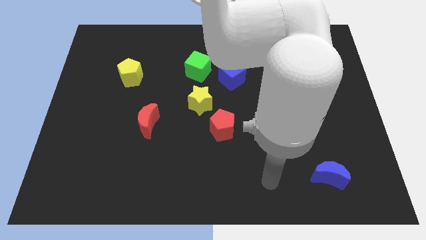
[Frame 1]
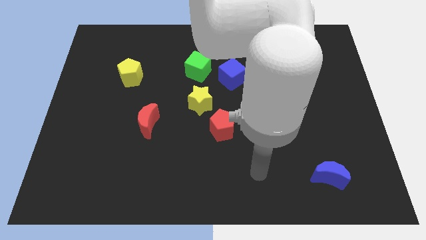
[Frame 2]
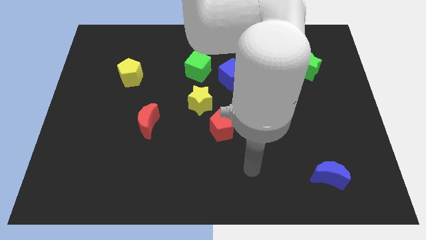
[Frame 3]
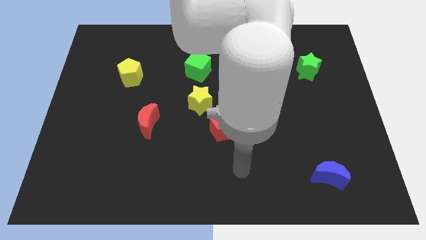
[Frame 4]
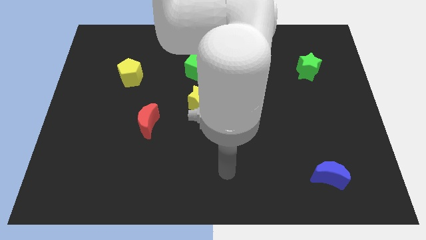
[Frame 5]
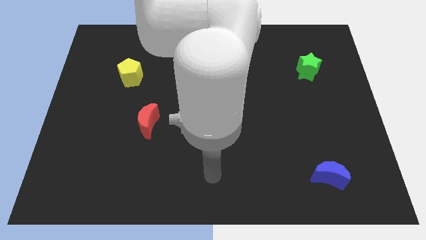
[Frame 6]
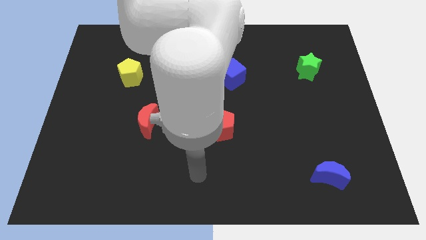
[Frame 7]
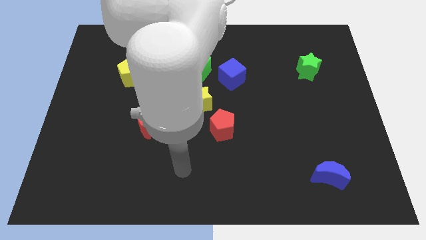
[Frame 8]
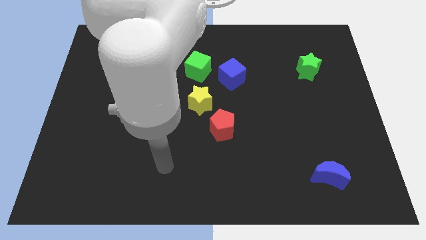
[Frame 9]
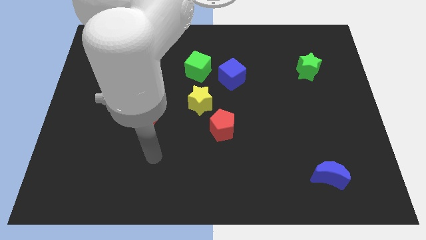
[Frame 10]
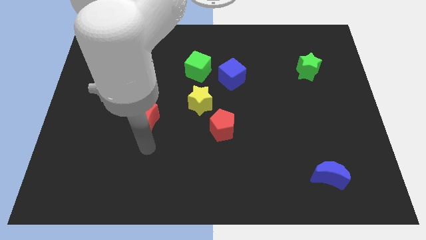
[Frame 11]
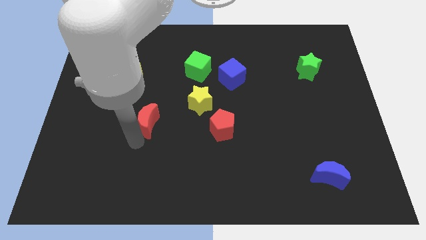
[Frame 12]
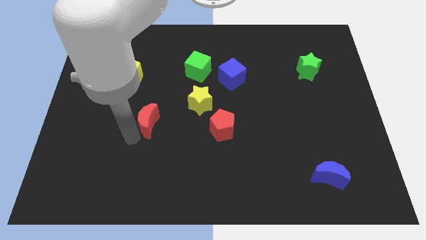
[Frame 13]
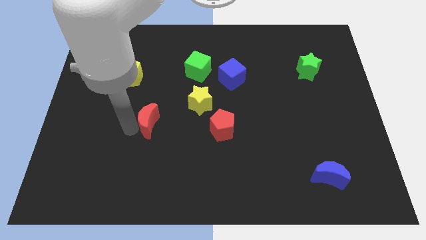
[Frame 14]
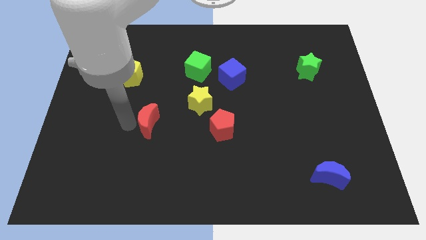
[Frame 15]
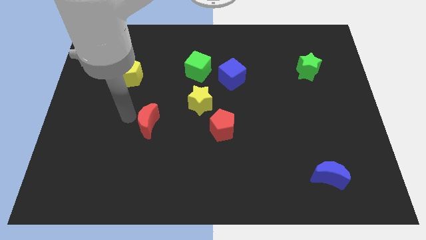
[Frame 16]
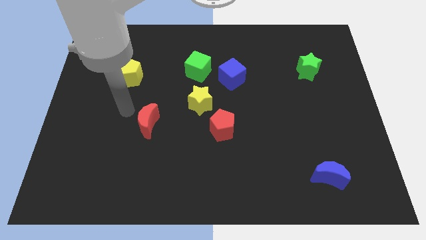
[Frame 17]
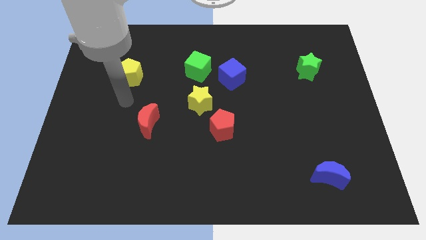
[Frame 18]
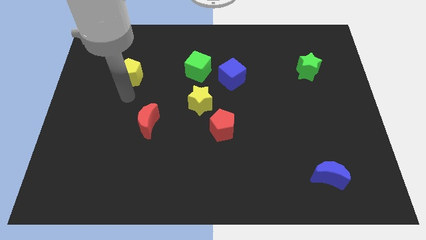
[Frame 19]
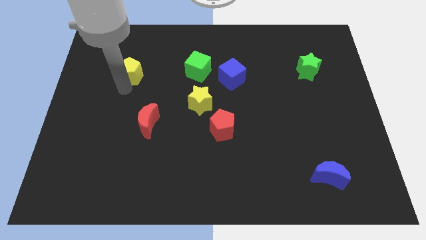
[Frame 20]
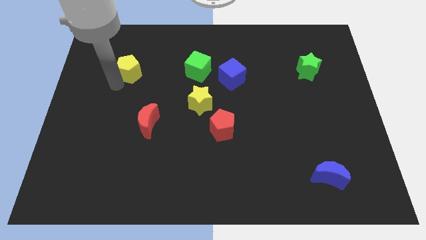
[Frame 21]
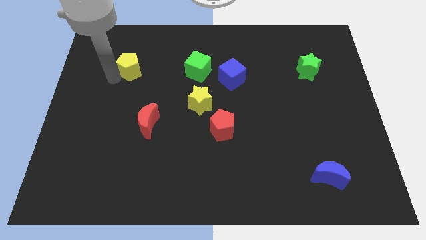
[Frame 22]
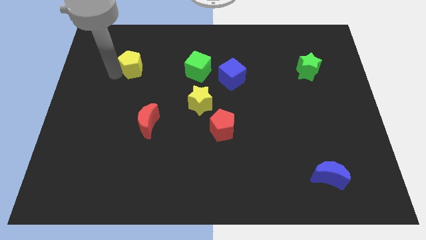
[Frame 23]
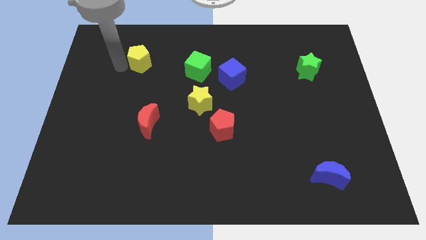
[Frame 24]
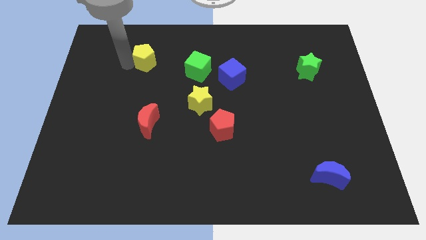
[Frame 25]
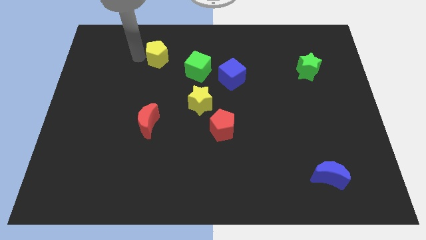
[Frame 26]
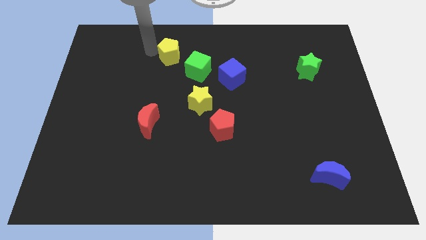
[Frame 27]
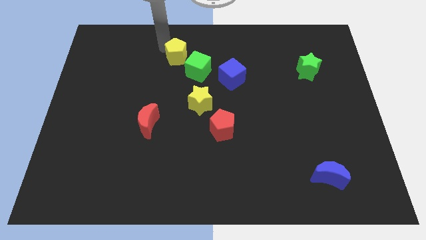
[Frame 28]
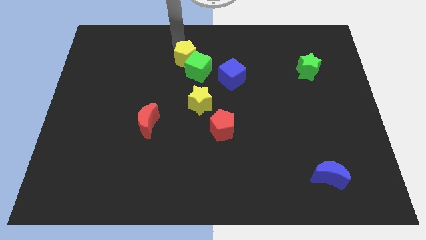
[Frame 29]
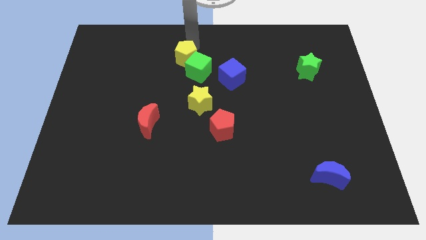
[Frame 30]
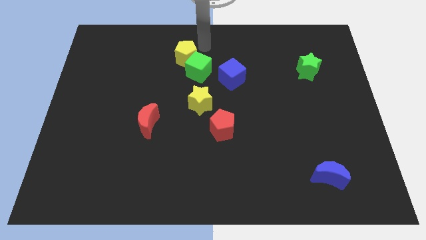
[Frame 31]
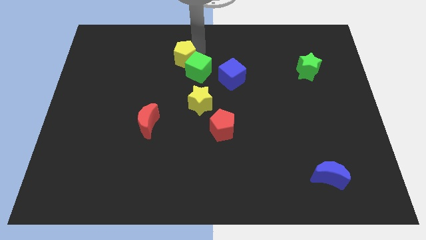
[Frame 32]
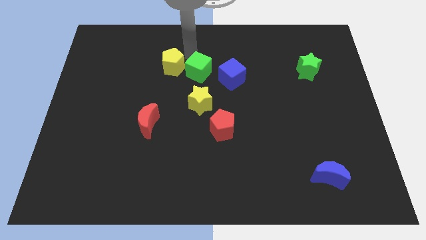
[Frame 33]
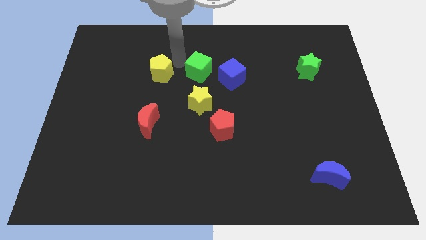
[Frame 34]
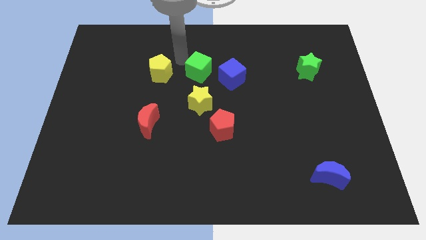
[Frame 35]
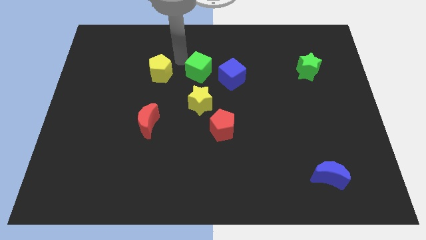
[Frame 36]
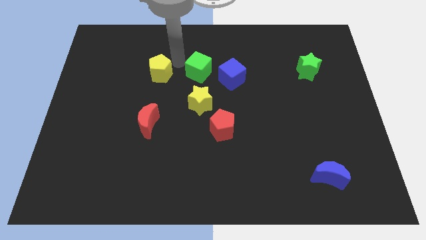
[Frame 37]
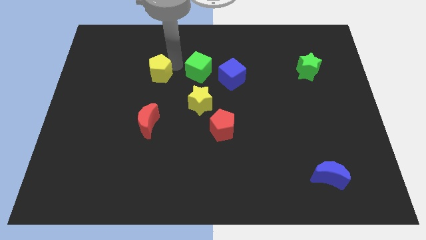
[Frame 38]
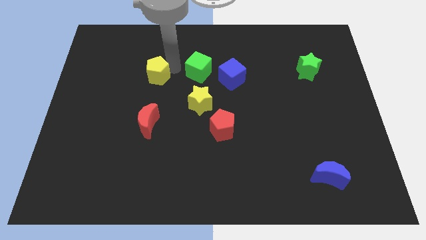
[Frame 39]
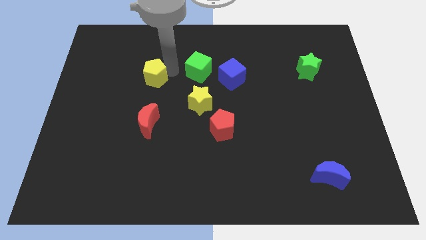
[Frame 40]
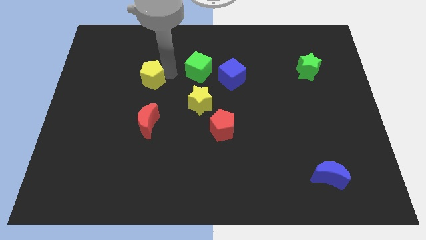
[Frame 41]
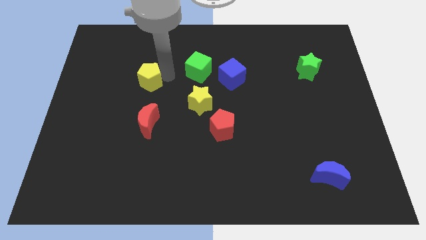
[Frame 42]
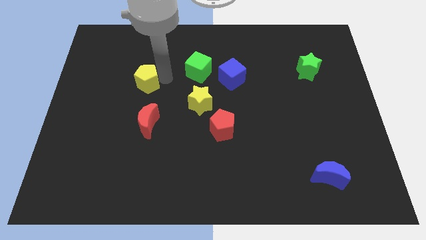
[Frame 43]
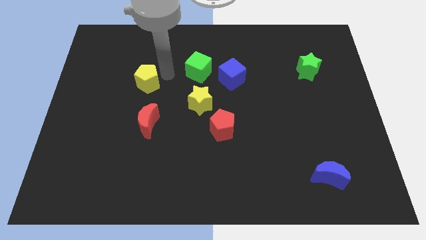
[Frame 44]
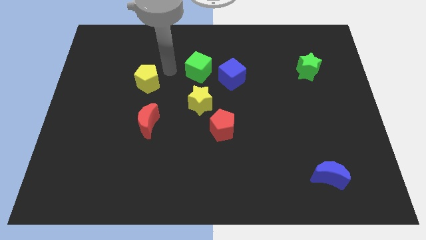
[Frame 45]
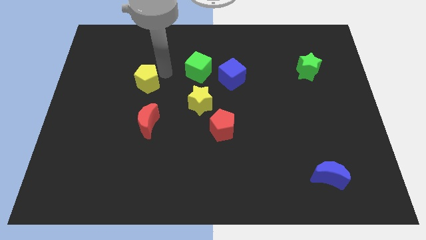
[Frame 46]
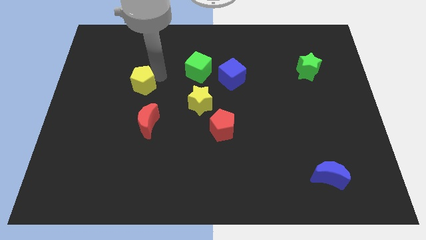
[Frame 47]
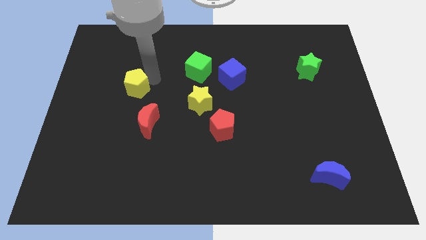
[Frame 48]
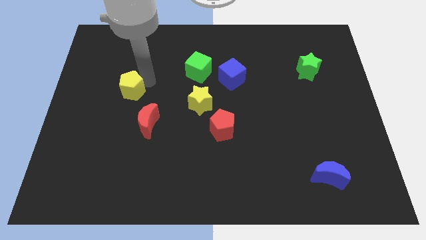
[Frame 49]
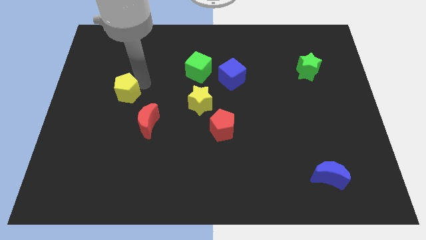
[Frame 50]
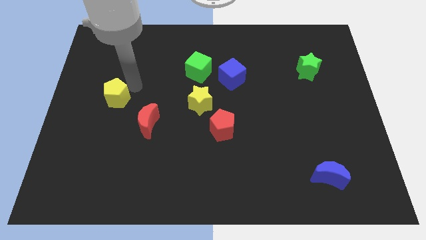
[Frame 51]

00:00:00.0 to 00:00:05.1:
push the yellow pentagon a little bit down

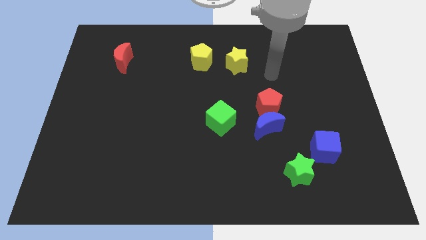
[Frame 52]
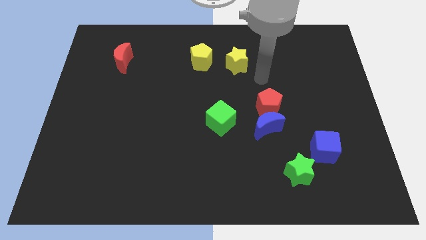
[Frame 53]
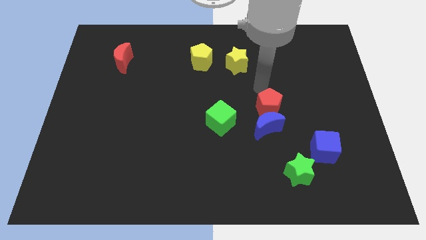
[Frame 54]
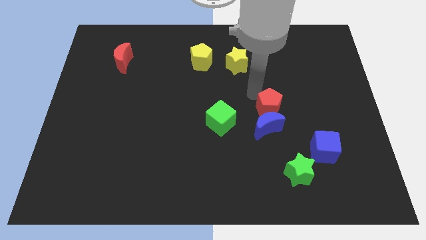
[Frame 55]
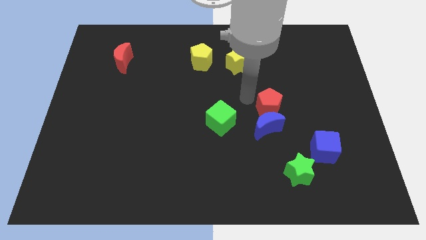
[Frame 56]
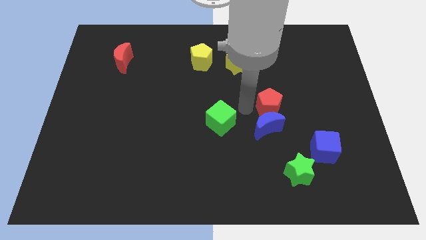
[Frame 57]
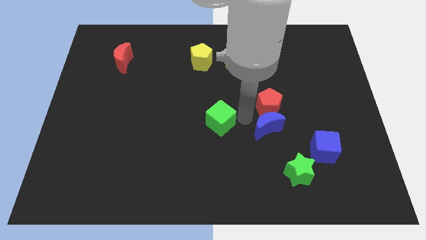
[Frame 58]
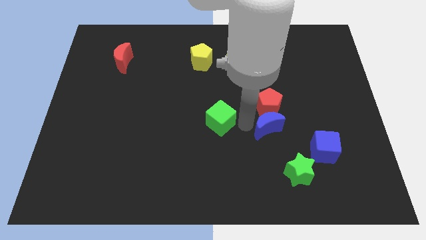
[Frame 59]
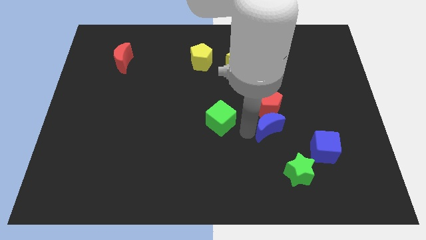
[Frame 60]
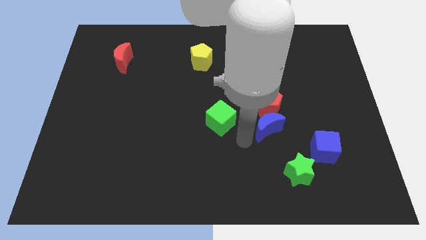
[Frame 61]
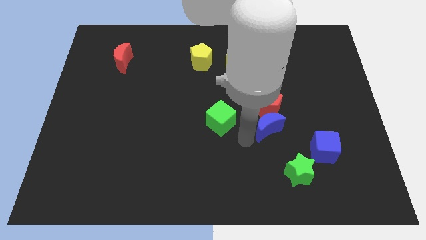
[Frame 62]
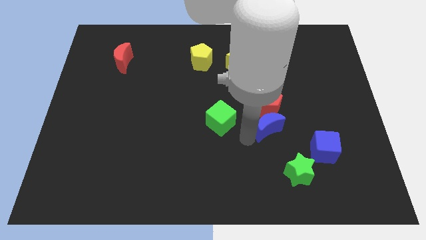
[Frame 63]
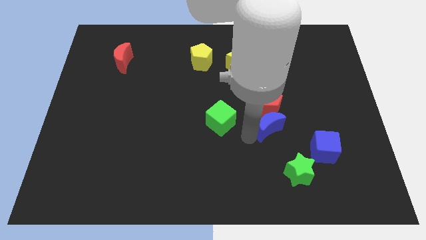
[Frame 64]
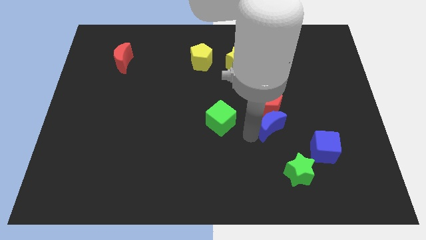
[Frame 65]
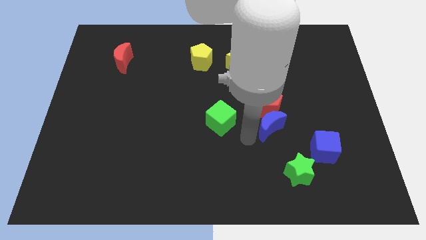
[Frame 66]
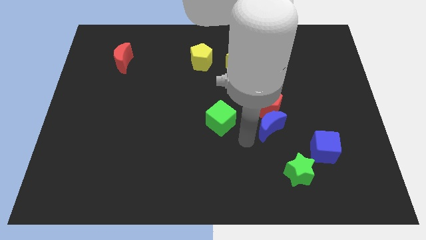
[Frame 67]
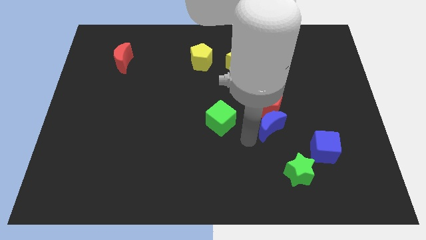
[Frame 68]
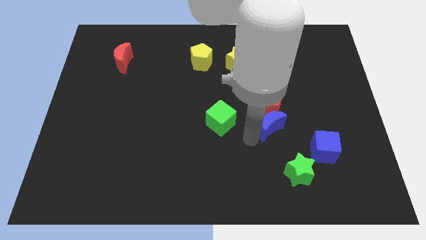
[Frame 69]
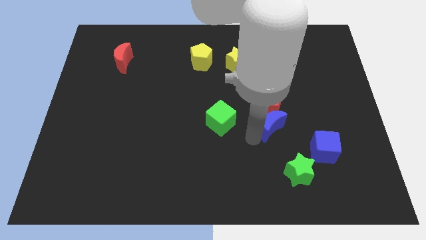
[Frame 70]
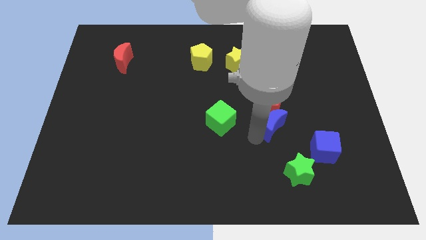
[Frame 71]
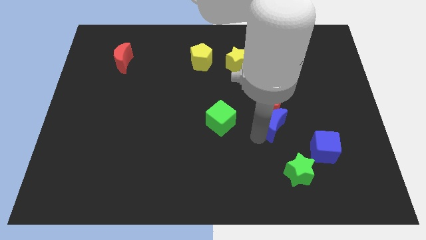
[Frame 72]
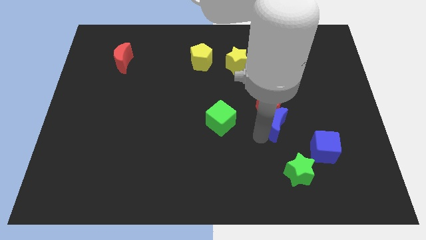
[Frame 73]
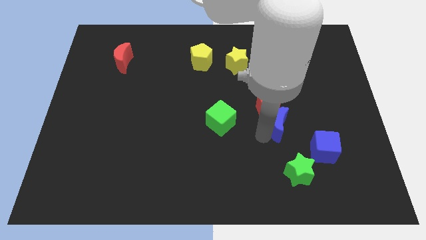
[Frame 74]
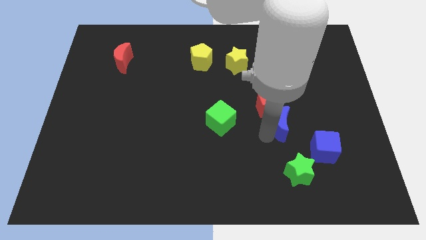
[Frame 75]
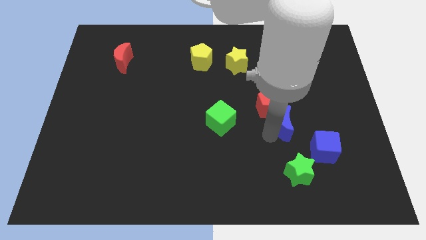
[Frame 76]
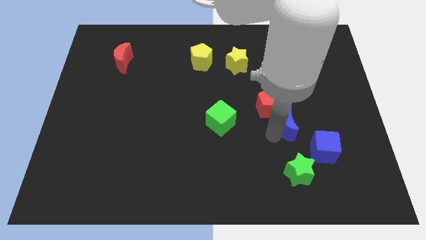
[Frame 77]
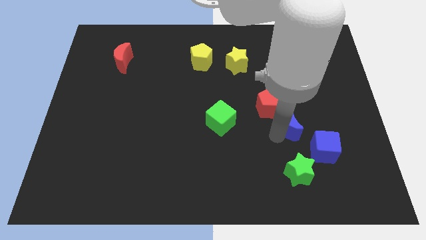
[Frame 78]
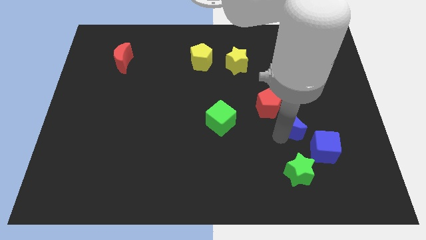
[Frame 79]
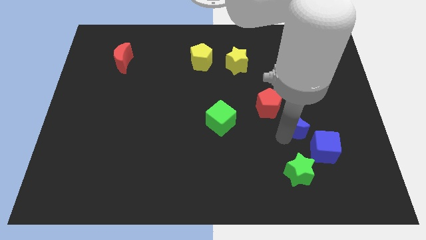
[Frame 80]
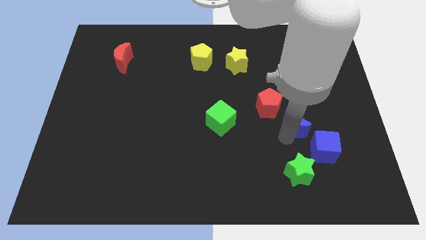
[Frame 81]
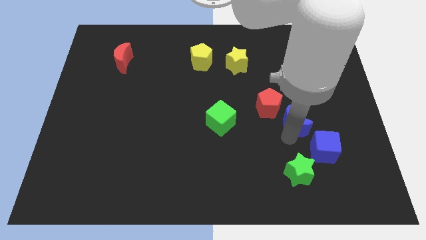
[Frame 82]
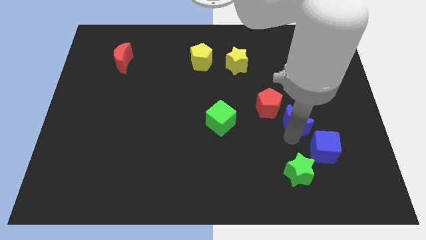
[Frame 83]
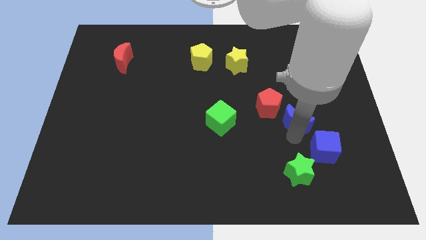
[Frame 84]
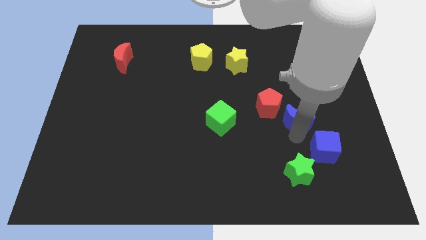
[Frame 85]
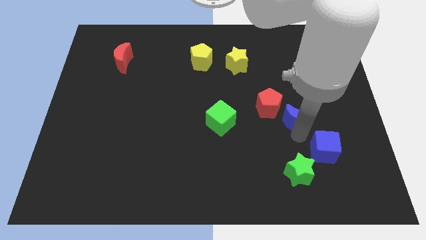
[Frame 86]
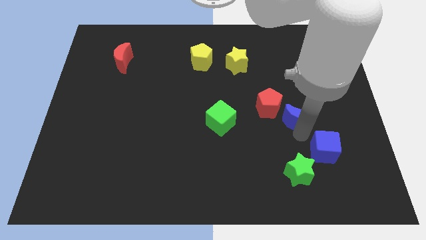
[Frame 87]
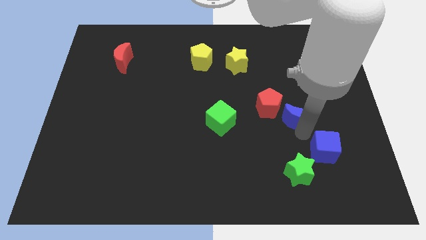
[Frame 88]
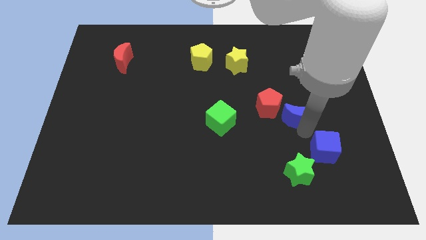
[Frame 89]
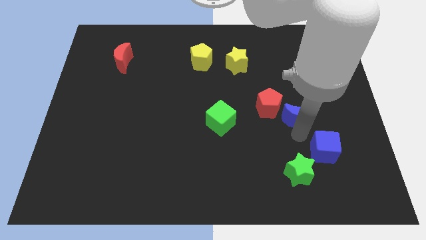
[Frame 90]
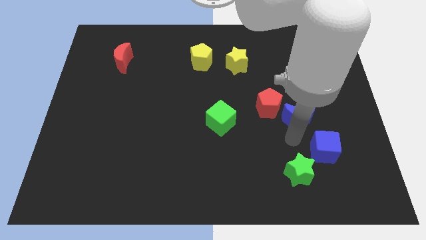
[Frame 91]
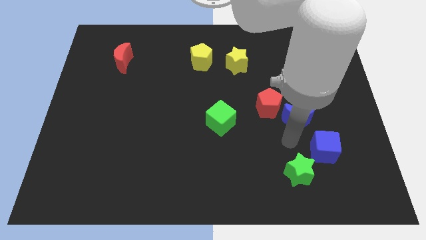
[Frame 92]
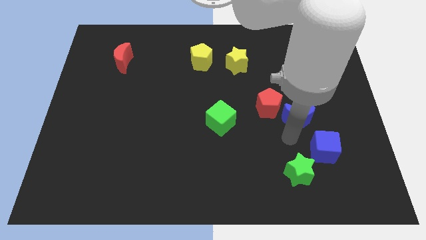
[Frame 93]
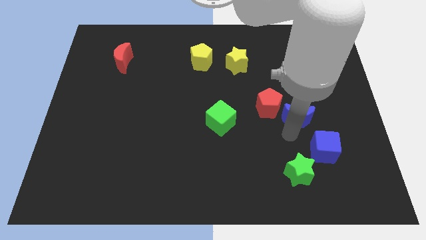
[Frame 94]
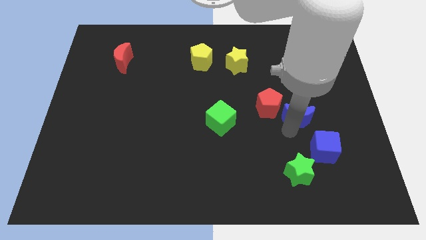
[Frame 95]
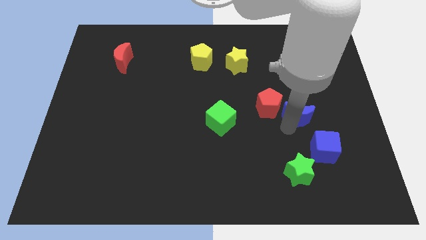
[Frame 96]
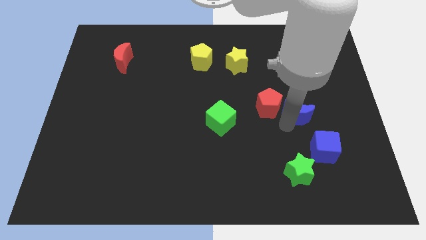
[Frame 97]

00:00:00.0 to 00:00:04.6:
move the blue moon diagonally up and to the right a bit
